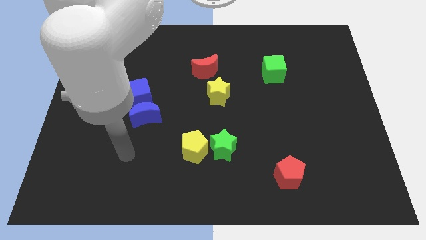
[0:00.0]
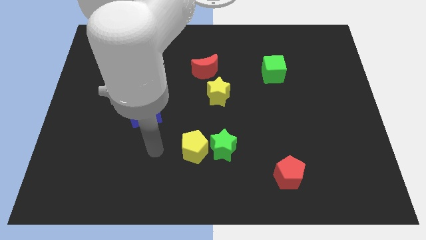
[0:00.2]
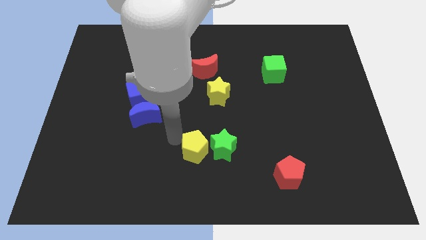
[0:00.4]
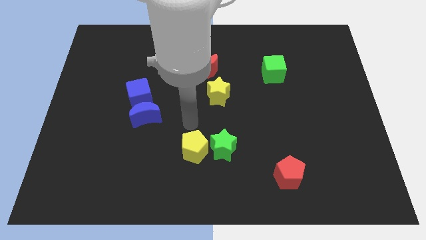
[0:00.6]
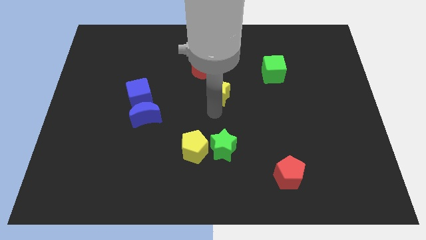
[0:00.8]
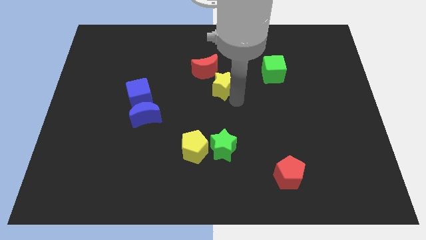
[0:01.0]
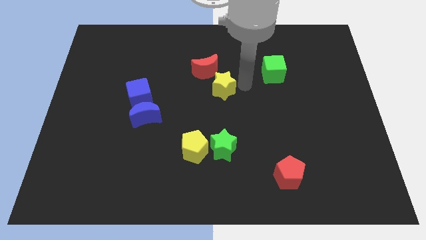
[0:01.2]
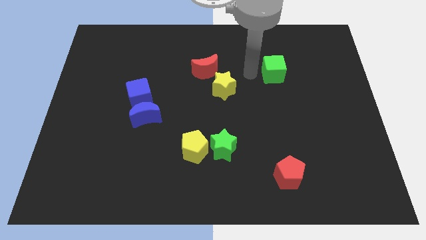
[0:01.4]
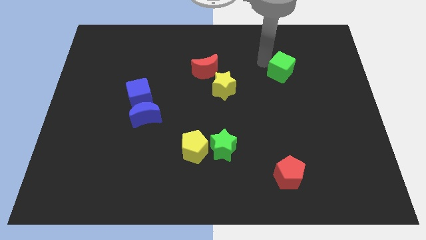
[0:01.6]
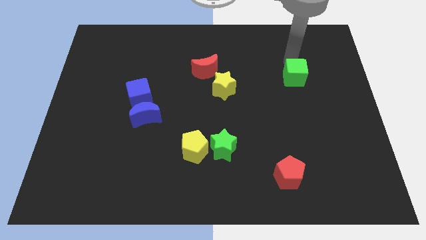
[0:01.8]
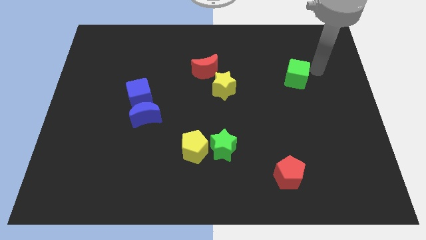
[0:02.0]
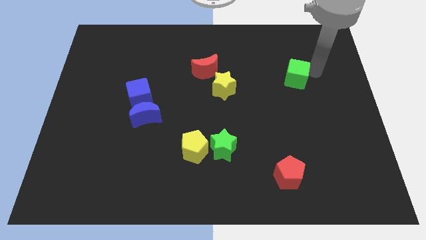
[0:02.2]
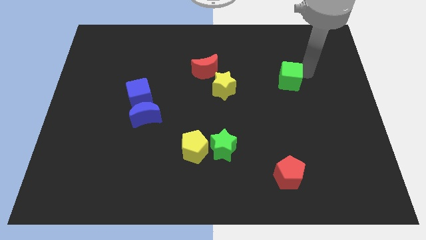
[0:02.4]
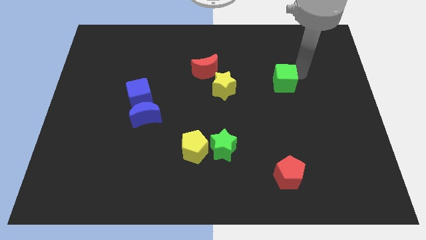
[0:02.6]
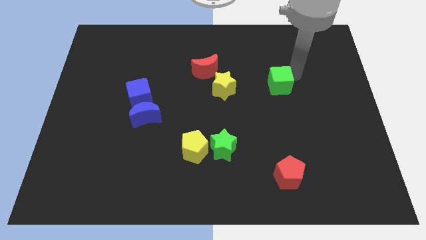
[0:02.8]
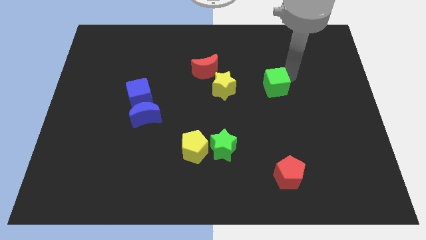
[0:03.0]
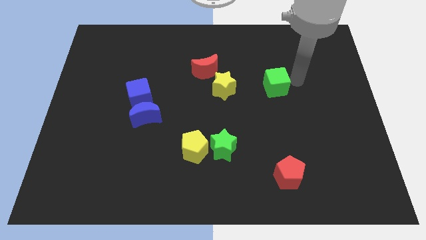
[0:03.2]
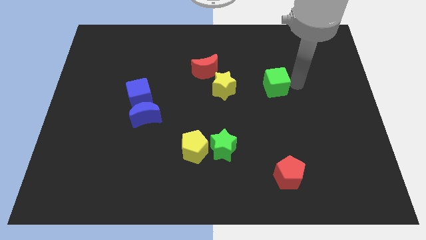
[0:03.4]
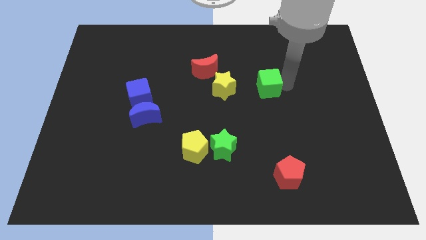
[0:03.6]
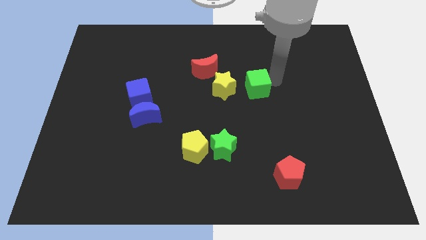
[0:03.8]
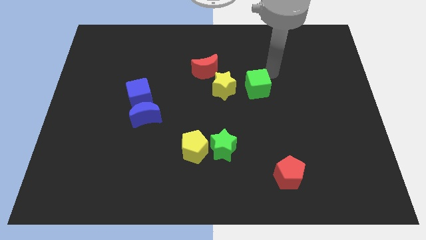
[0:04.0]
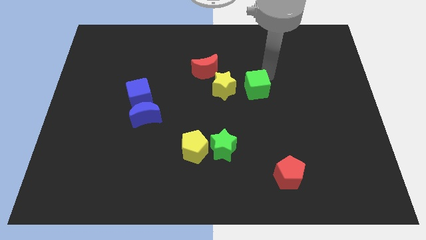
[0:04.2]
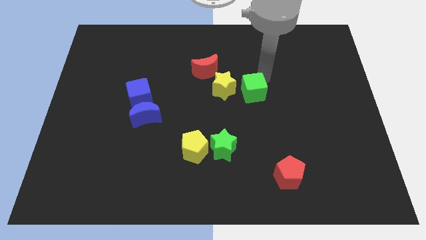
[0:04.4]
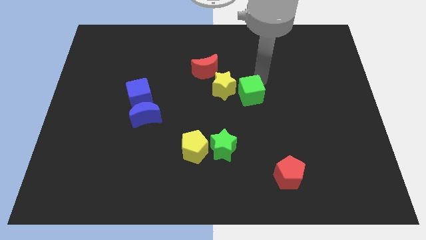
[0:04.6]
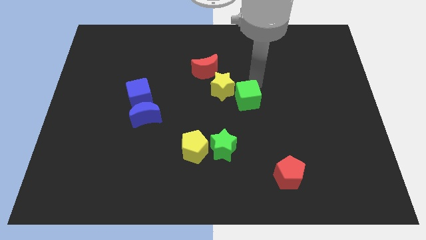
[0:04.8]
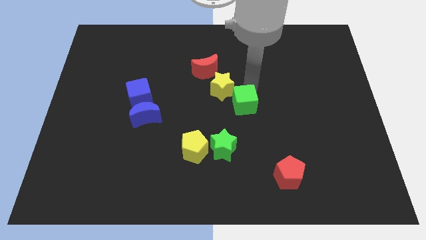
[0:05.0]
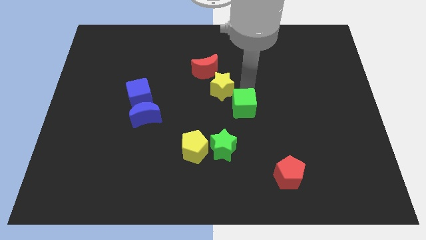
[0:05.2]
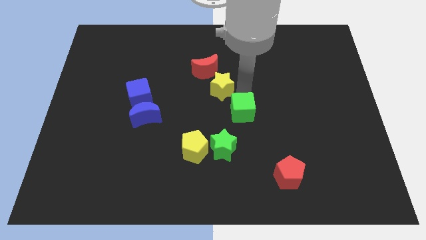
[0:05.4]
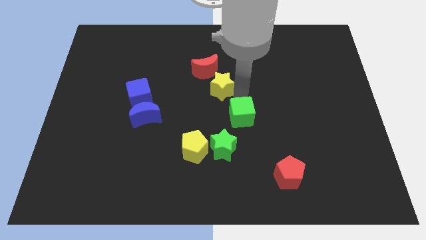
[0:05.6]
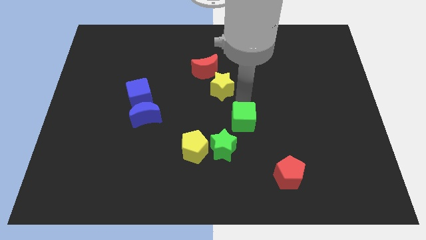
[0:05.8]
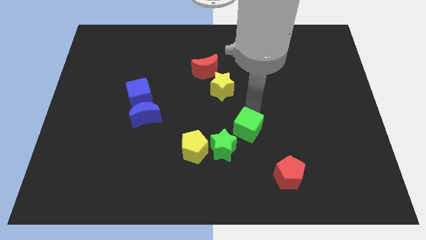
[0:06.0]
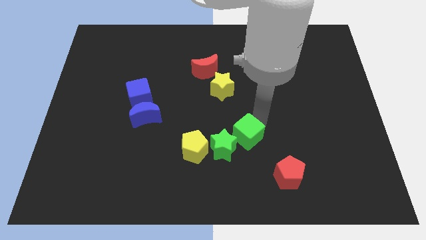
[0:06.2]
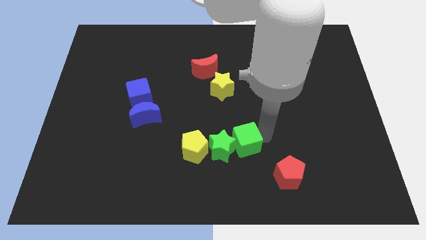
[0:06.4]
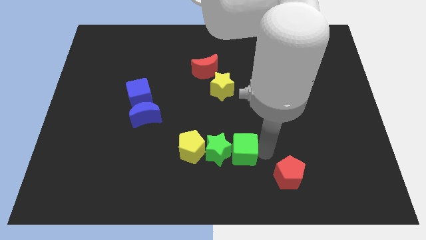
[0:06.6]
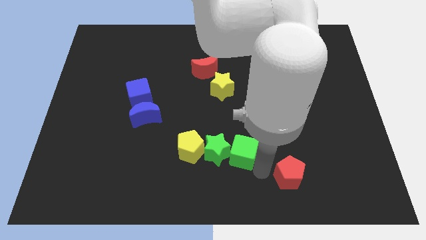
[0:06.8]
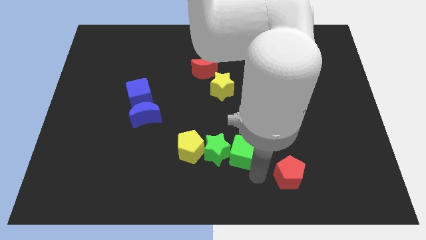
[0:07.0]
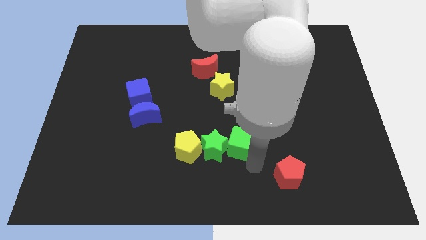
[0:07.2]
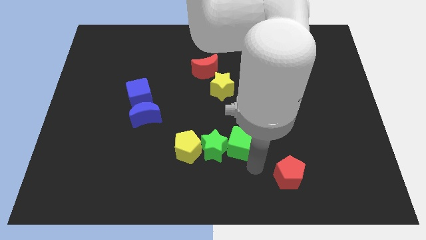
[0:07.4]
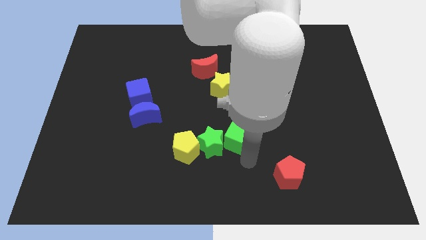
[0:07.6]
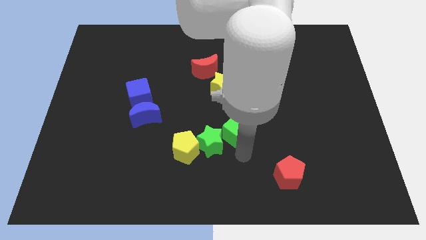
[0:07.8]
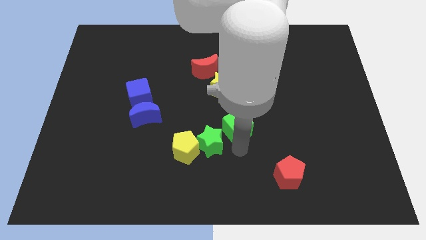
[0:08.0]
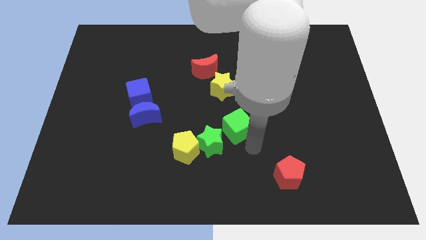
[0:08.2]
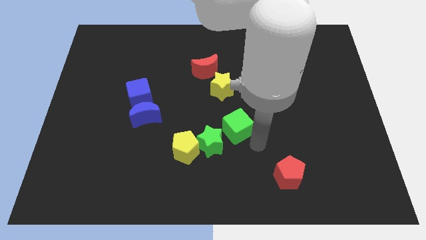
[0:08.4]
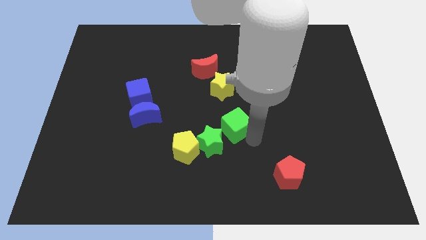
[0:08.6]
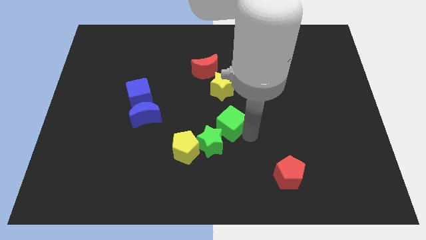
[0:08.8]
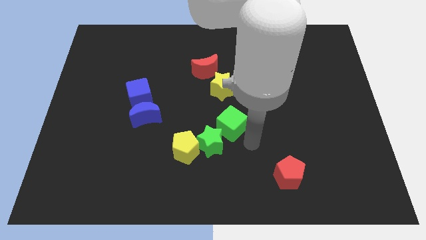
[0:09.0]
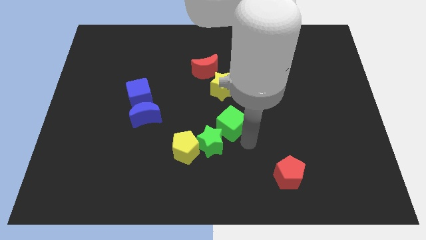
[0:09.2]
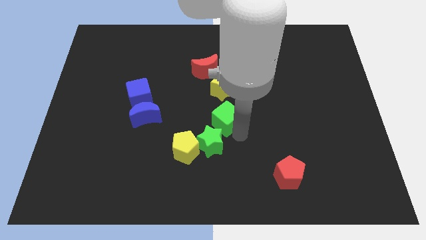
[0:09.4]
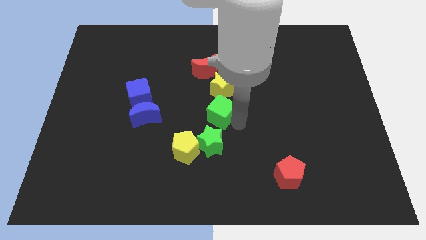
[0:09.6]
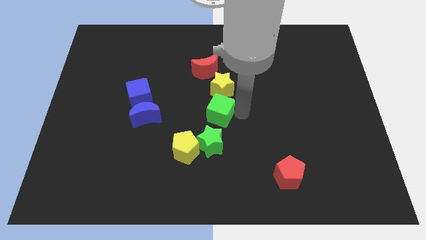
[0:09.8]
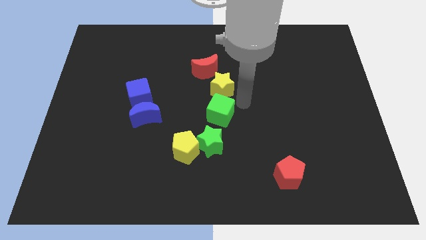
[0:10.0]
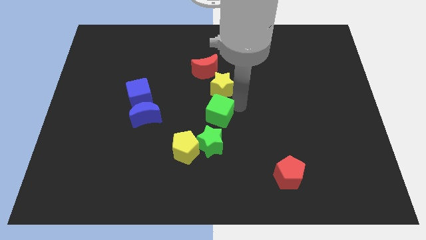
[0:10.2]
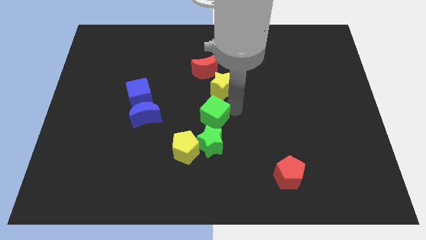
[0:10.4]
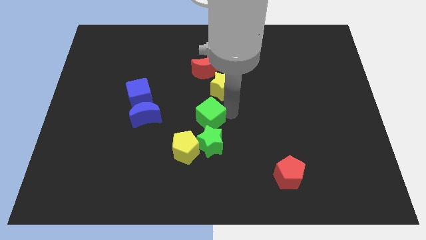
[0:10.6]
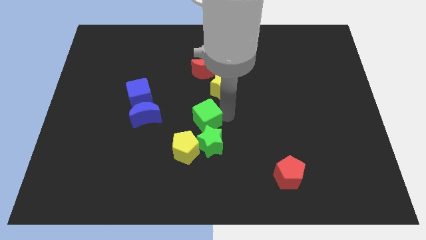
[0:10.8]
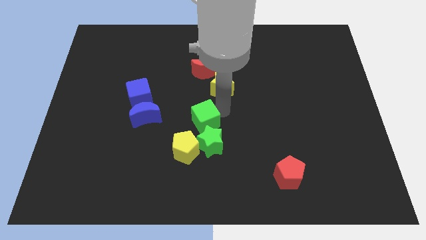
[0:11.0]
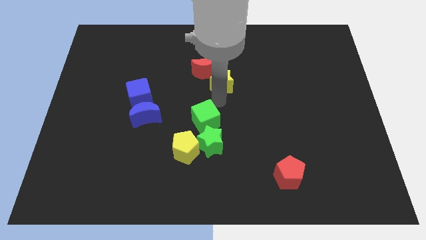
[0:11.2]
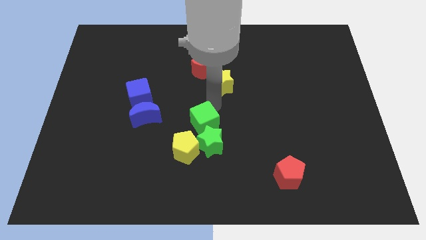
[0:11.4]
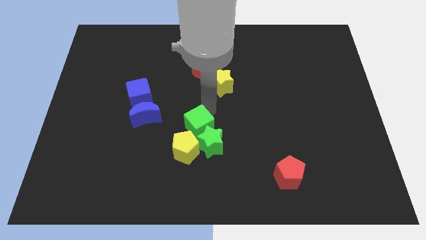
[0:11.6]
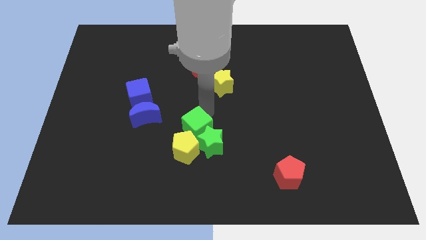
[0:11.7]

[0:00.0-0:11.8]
put the green cube next to the yellow pentagon
